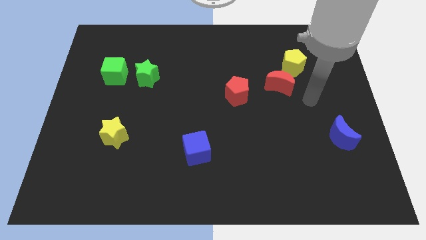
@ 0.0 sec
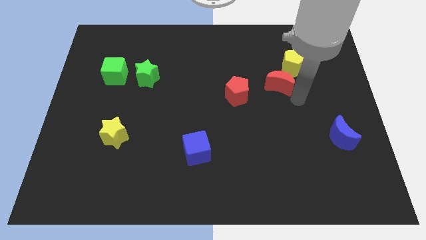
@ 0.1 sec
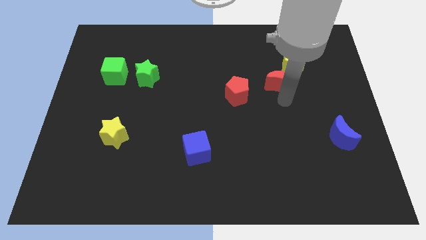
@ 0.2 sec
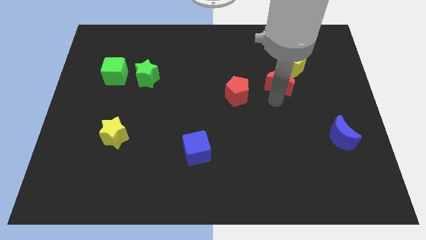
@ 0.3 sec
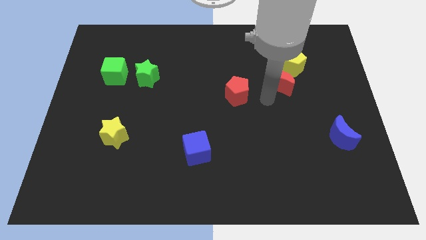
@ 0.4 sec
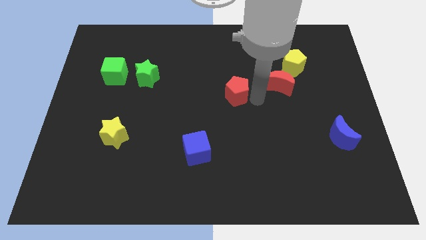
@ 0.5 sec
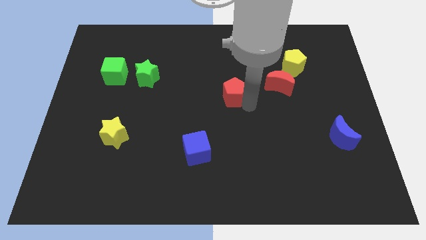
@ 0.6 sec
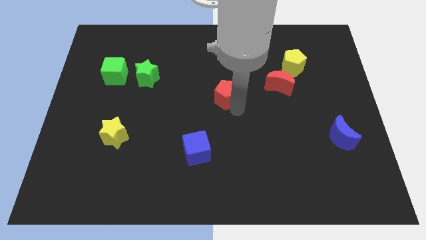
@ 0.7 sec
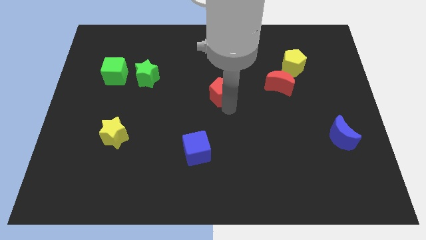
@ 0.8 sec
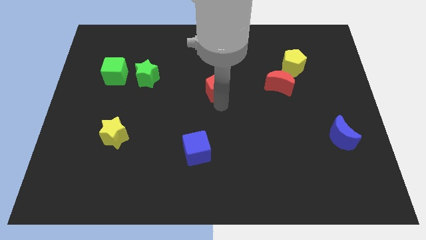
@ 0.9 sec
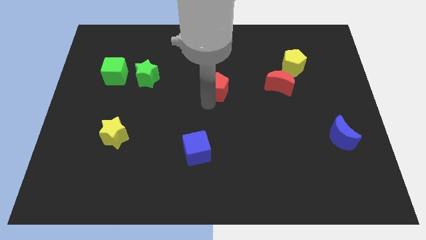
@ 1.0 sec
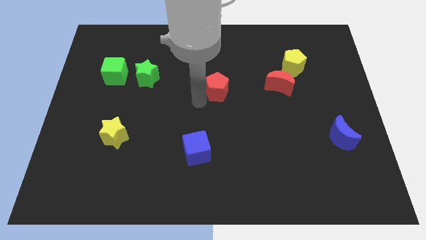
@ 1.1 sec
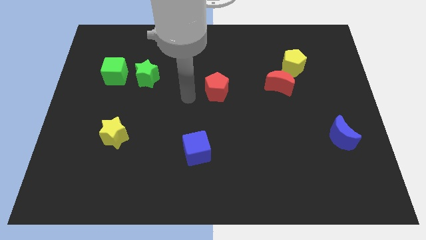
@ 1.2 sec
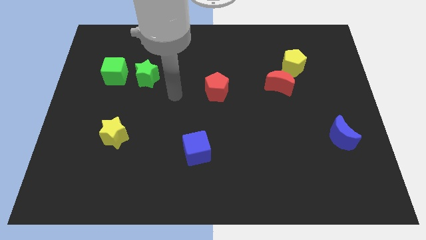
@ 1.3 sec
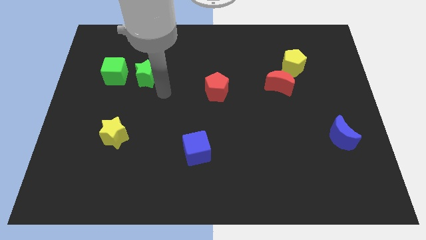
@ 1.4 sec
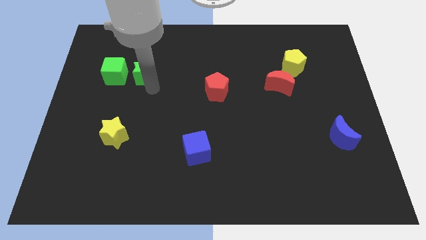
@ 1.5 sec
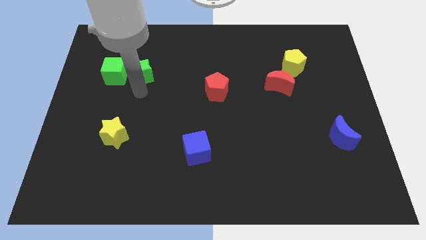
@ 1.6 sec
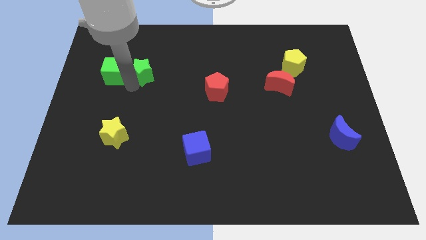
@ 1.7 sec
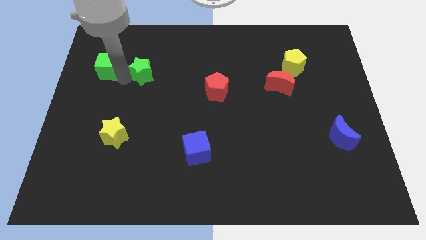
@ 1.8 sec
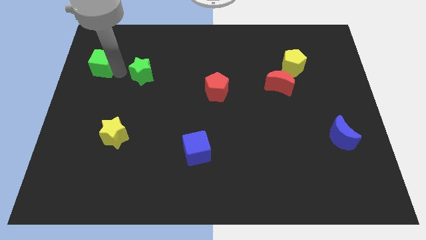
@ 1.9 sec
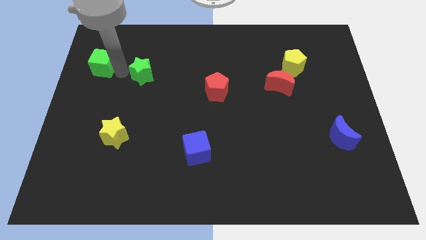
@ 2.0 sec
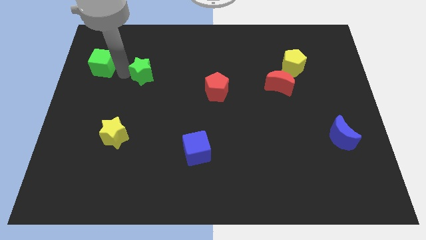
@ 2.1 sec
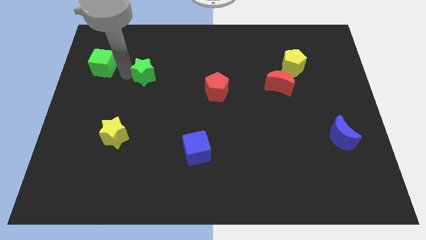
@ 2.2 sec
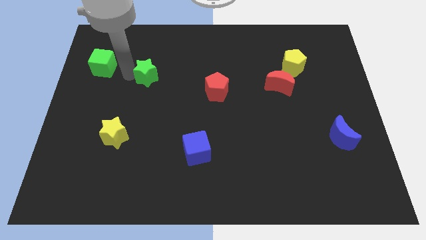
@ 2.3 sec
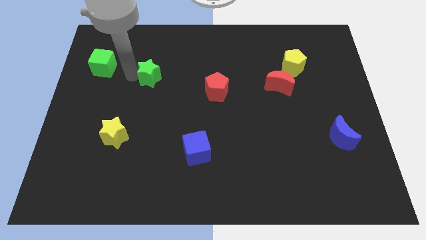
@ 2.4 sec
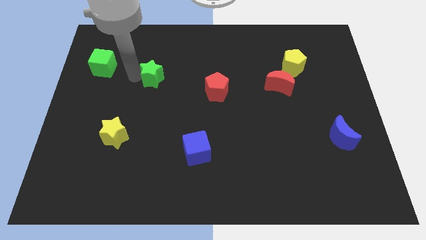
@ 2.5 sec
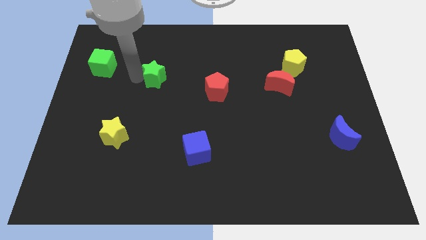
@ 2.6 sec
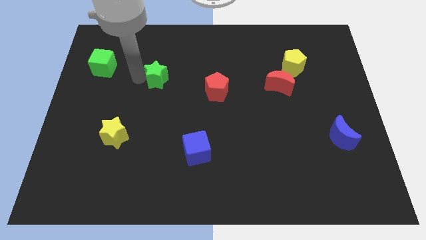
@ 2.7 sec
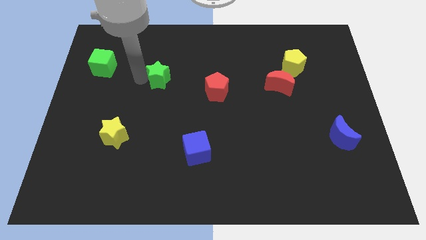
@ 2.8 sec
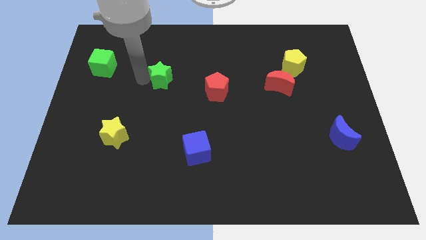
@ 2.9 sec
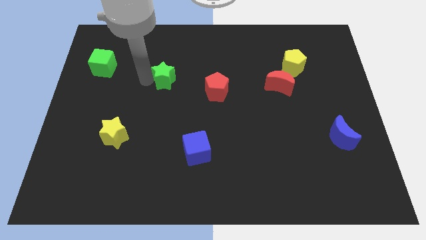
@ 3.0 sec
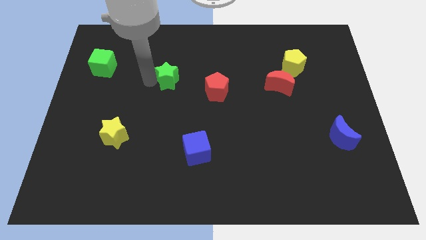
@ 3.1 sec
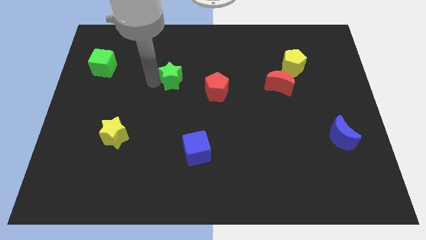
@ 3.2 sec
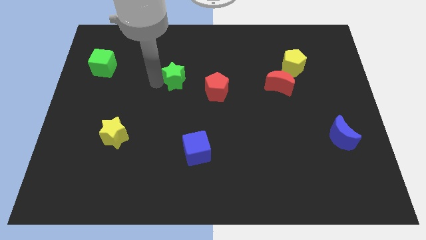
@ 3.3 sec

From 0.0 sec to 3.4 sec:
slightly push the green star to the right

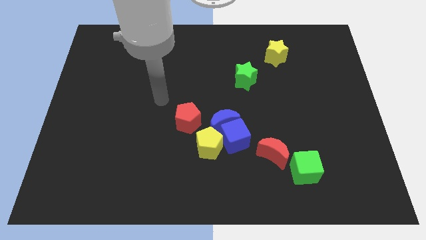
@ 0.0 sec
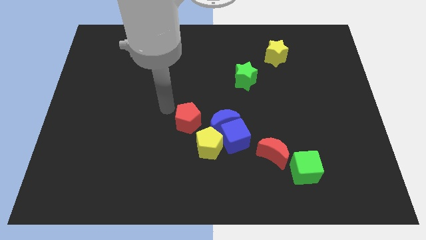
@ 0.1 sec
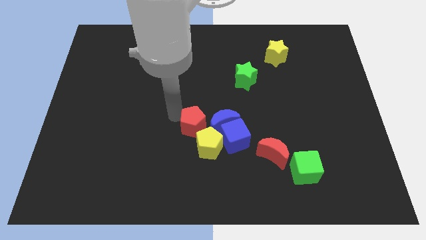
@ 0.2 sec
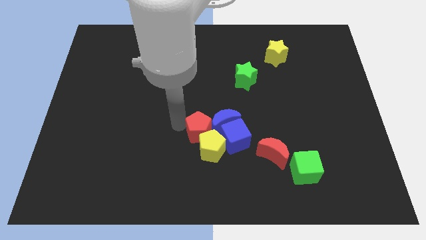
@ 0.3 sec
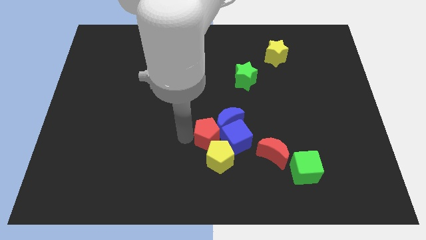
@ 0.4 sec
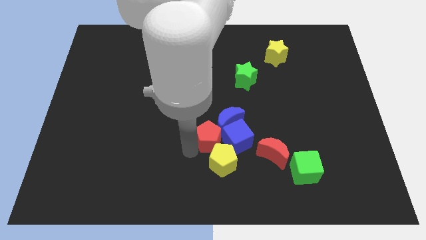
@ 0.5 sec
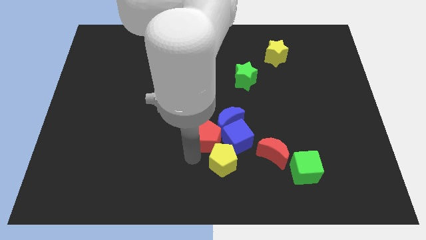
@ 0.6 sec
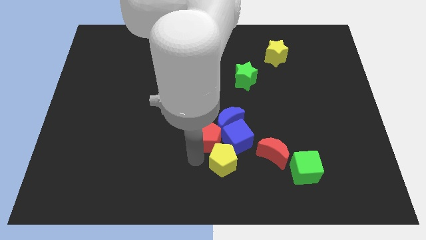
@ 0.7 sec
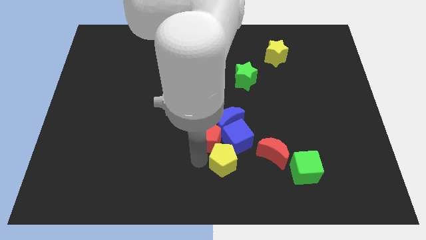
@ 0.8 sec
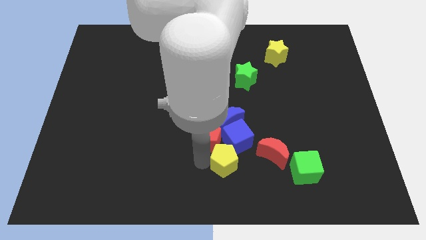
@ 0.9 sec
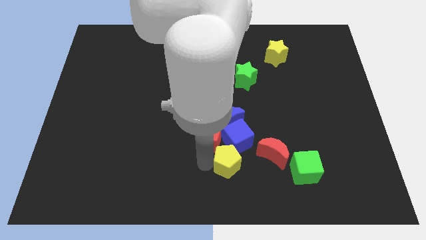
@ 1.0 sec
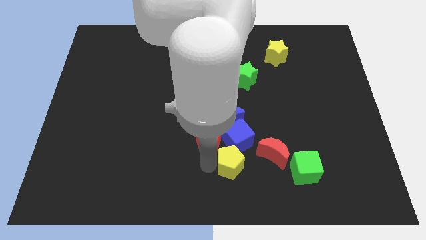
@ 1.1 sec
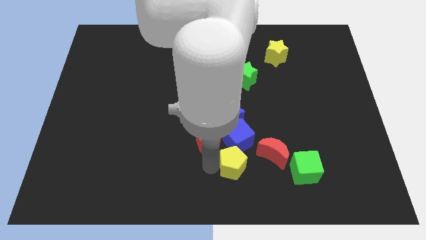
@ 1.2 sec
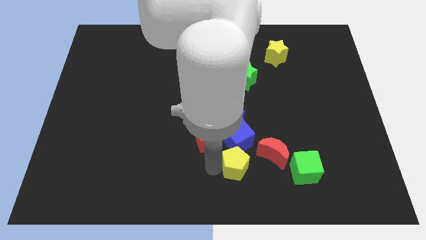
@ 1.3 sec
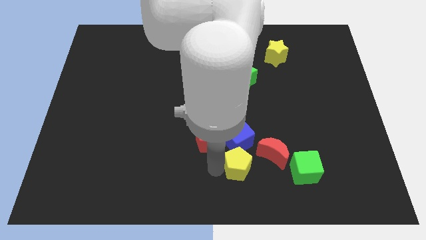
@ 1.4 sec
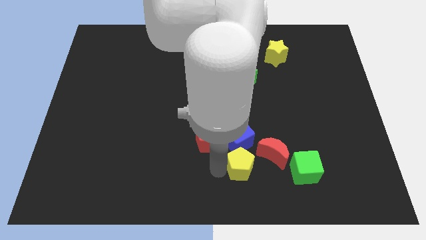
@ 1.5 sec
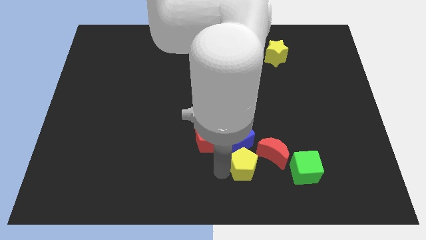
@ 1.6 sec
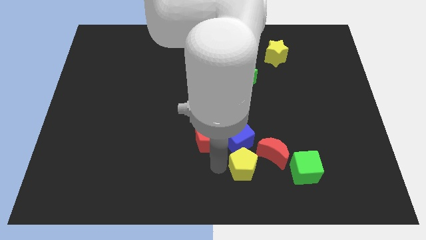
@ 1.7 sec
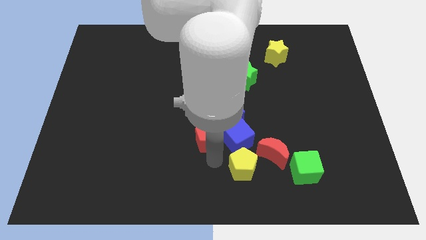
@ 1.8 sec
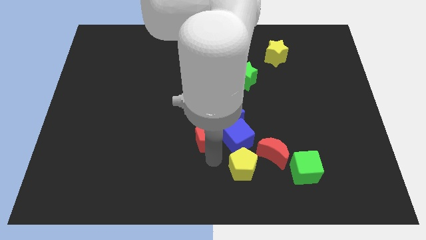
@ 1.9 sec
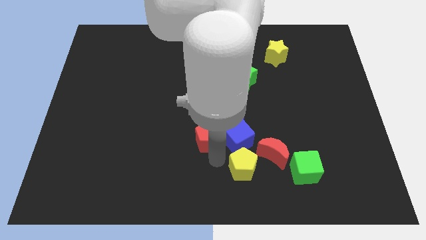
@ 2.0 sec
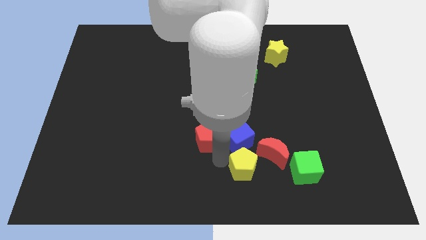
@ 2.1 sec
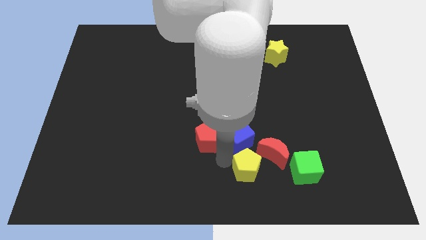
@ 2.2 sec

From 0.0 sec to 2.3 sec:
slide the yellow pentagon right slightly

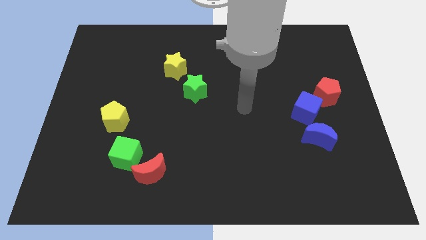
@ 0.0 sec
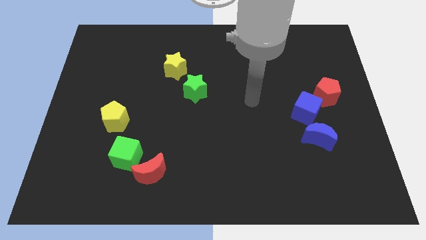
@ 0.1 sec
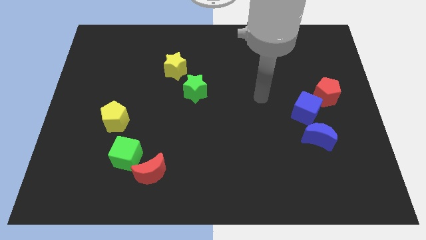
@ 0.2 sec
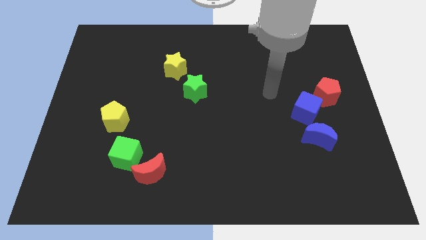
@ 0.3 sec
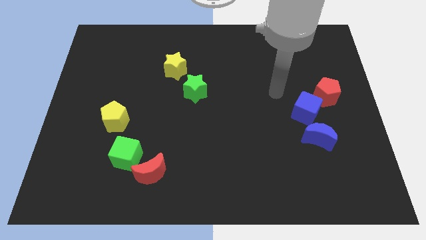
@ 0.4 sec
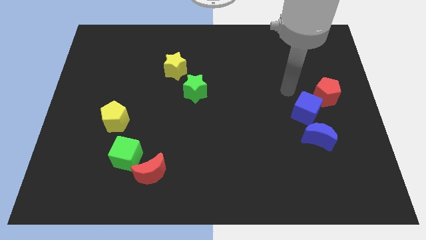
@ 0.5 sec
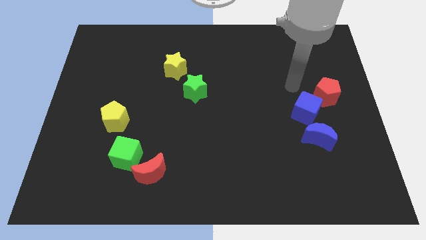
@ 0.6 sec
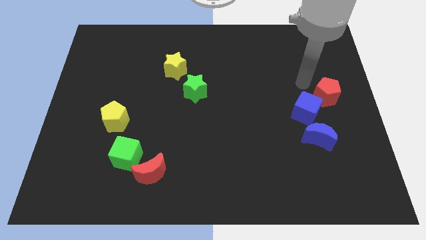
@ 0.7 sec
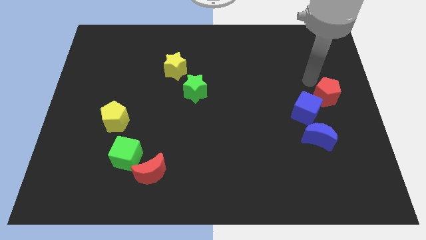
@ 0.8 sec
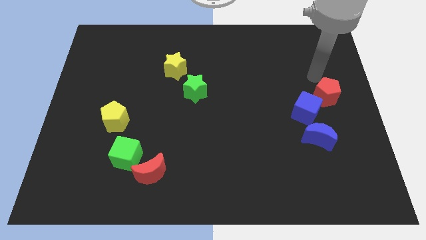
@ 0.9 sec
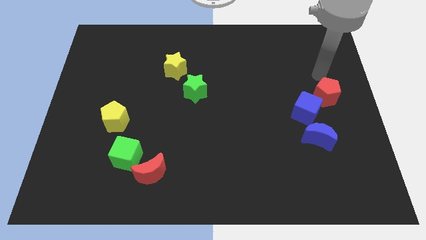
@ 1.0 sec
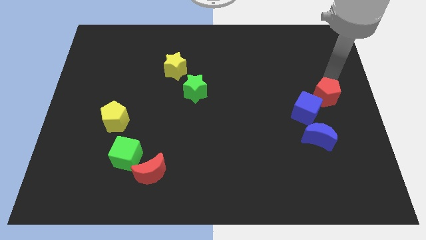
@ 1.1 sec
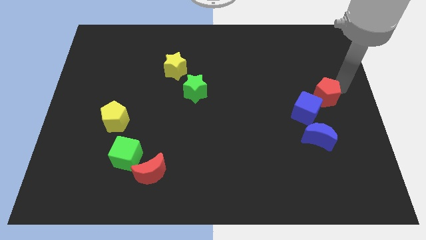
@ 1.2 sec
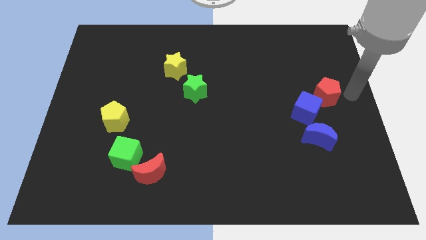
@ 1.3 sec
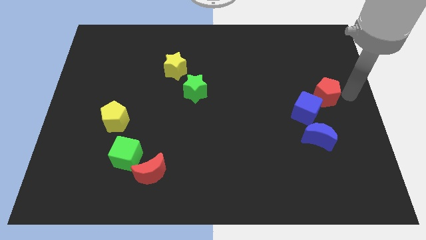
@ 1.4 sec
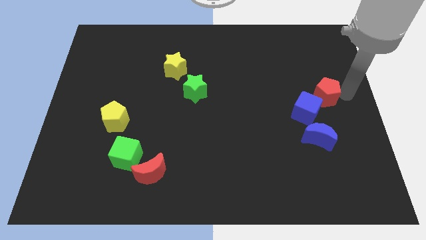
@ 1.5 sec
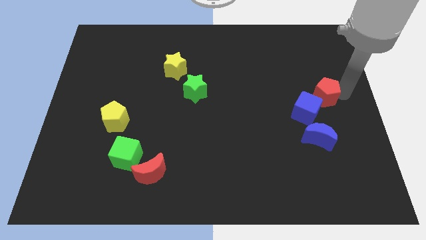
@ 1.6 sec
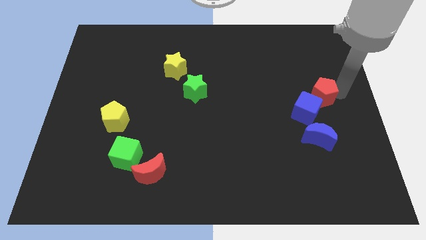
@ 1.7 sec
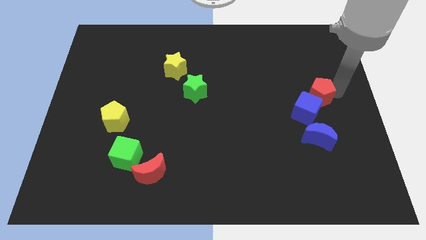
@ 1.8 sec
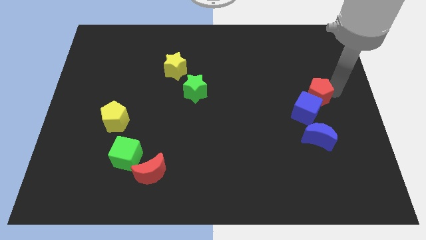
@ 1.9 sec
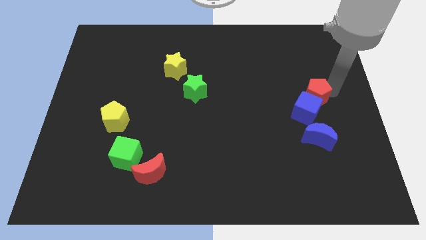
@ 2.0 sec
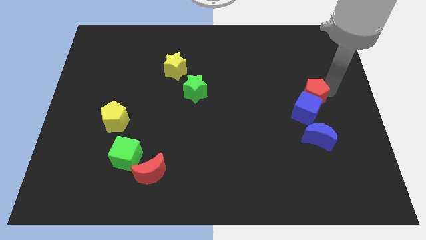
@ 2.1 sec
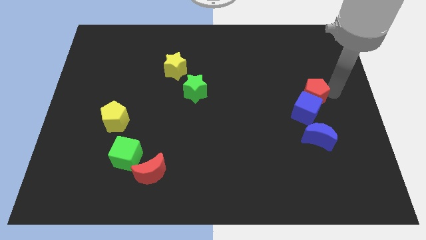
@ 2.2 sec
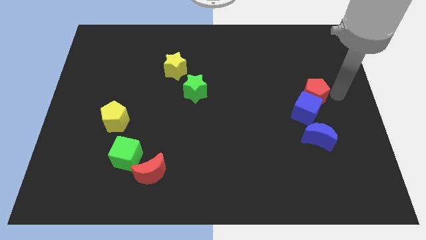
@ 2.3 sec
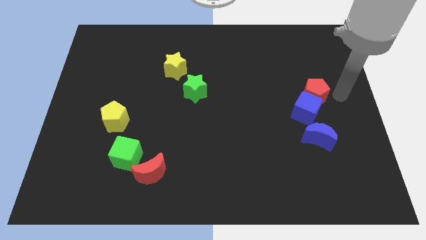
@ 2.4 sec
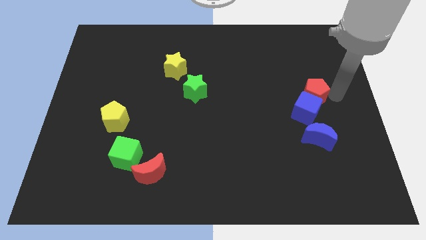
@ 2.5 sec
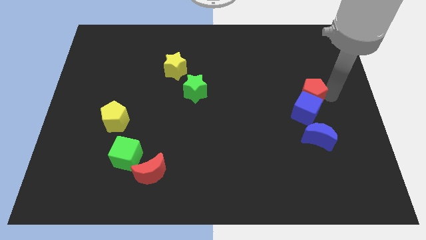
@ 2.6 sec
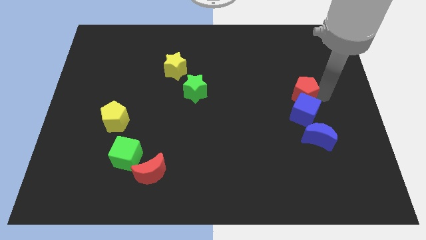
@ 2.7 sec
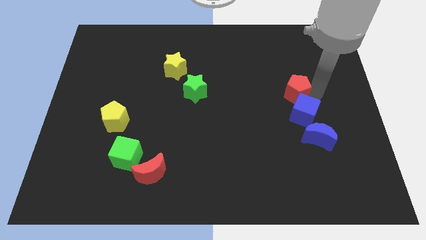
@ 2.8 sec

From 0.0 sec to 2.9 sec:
slide the red pentagon to the left slightly
